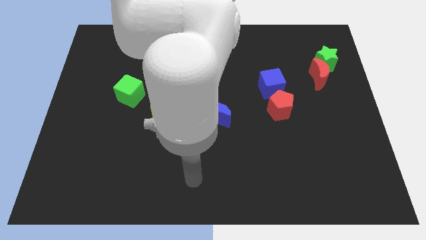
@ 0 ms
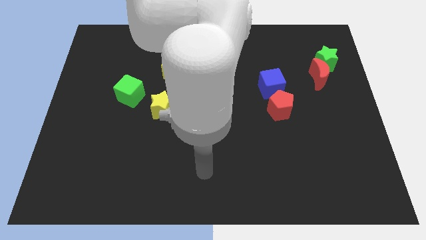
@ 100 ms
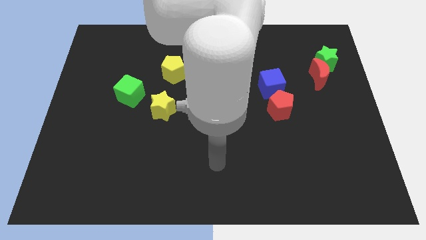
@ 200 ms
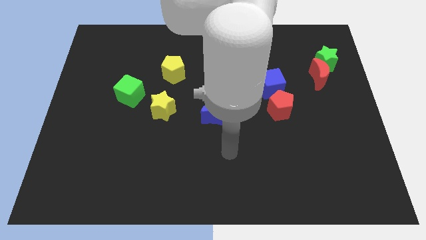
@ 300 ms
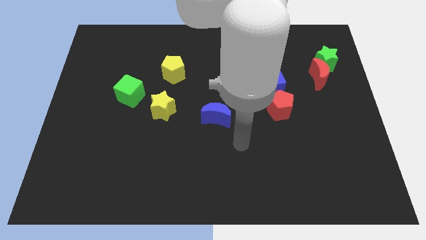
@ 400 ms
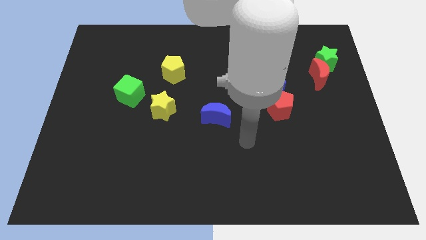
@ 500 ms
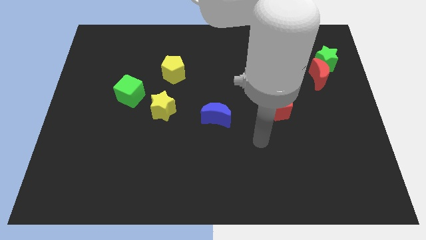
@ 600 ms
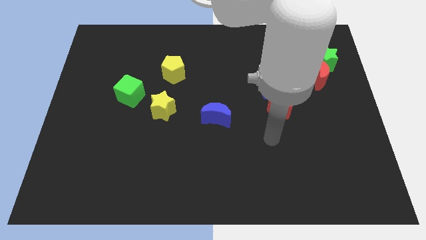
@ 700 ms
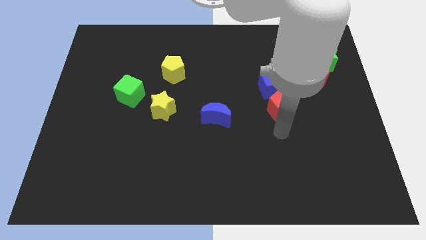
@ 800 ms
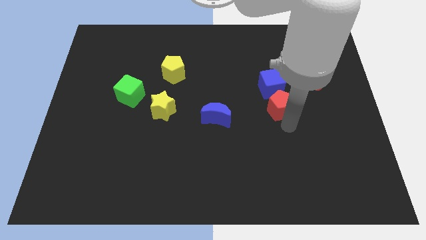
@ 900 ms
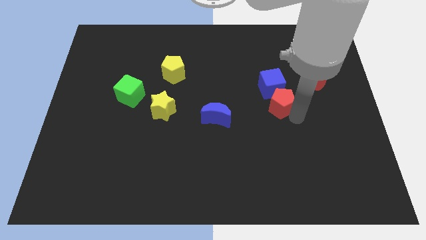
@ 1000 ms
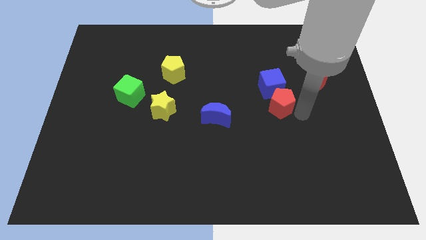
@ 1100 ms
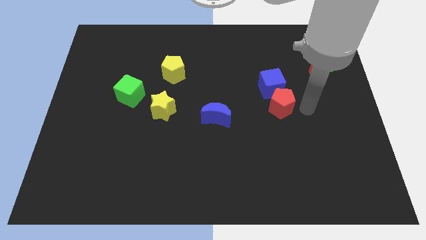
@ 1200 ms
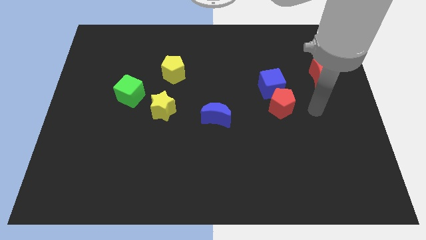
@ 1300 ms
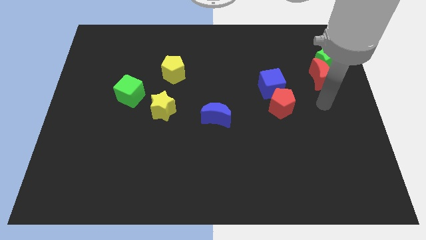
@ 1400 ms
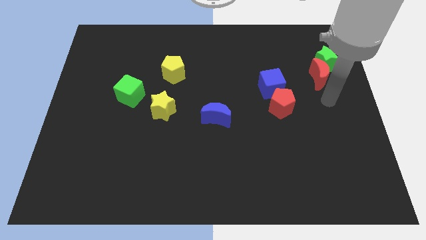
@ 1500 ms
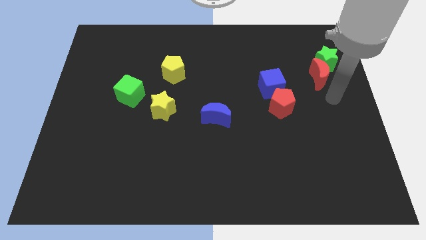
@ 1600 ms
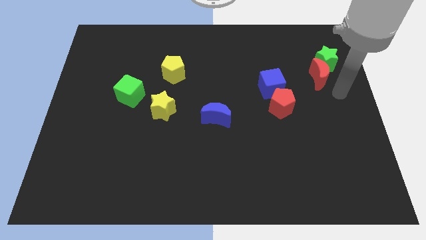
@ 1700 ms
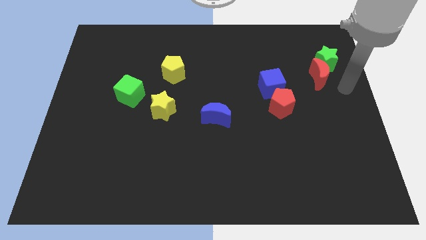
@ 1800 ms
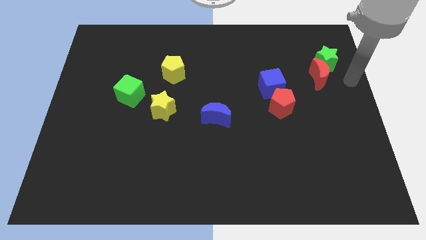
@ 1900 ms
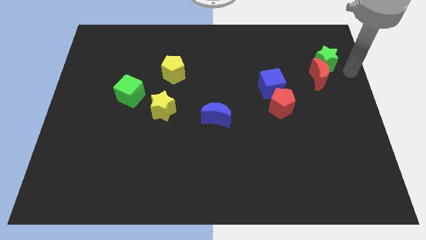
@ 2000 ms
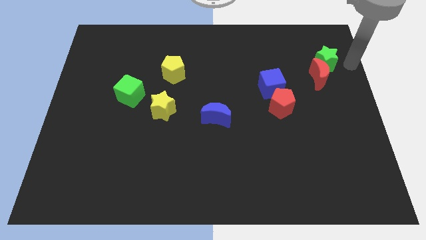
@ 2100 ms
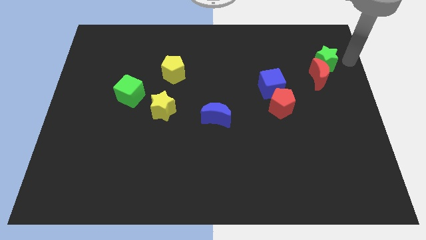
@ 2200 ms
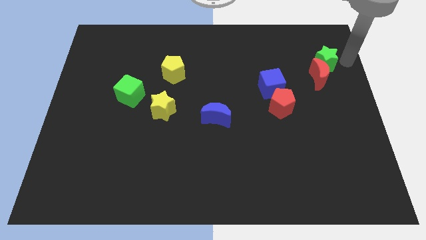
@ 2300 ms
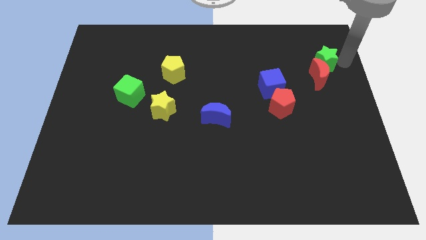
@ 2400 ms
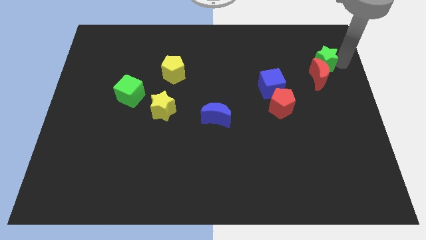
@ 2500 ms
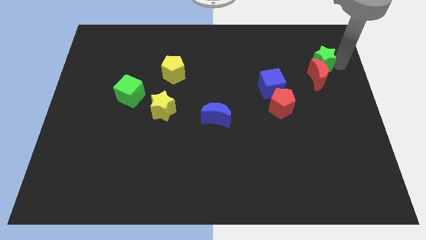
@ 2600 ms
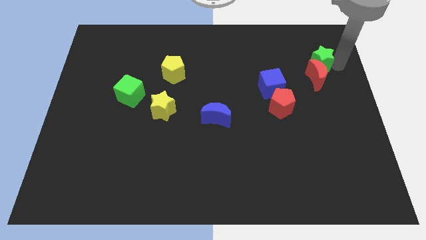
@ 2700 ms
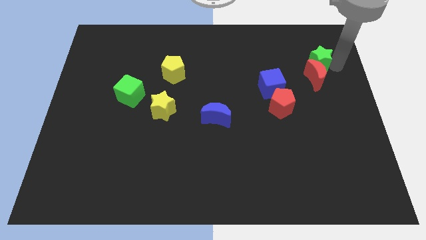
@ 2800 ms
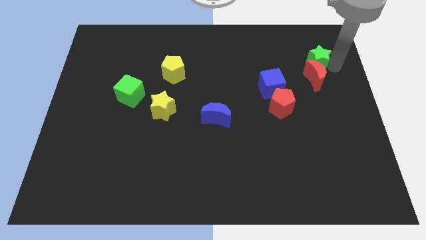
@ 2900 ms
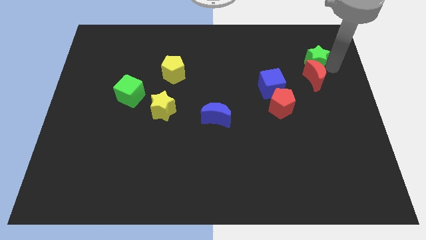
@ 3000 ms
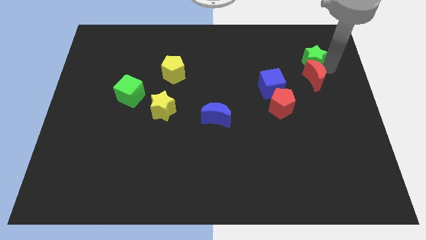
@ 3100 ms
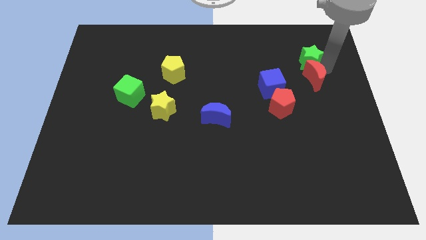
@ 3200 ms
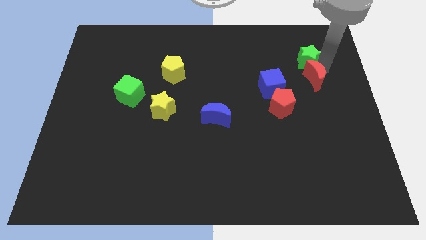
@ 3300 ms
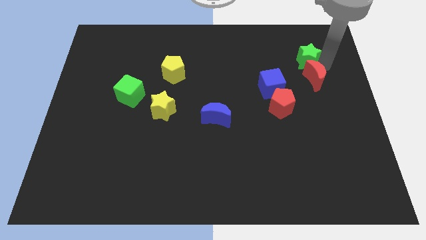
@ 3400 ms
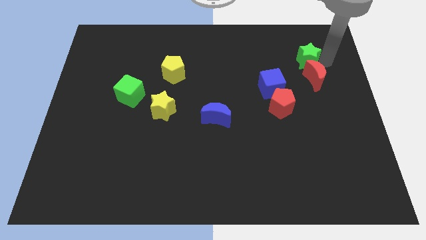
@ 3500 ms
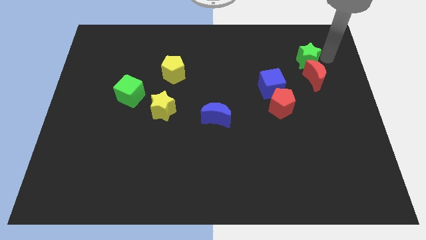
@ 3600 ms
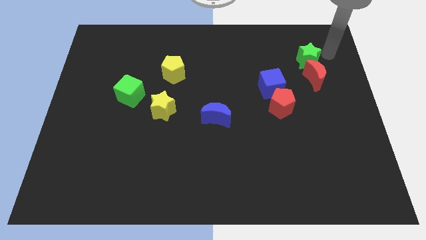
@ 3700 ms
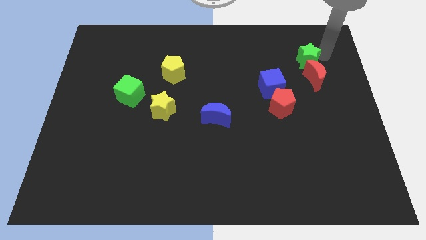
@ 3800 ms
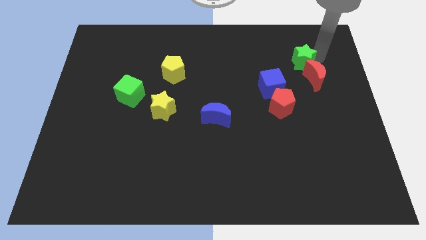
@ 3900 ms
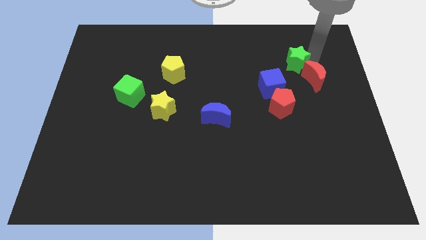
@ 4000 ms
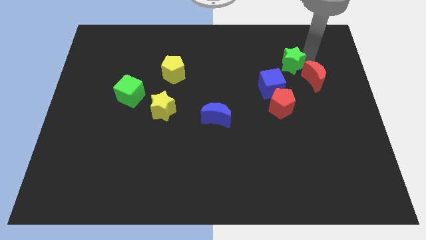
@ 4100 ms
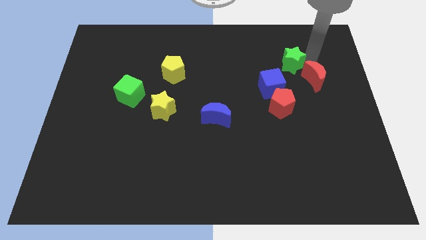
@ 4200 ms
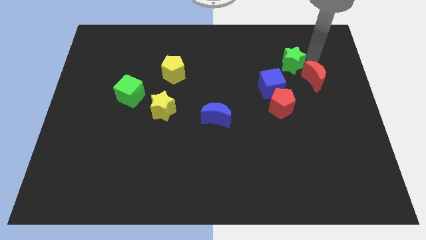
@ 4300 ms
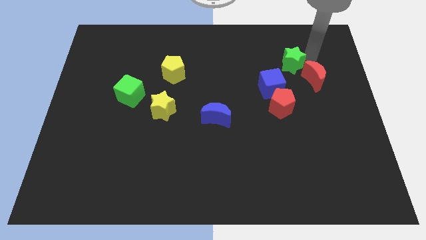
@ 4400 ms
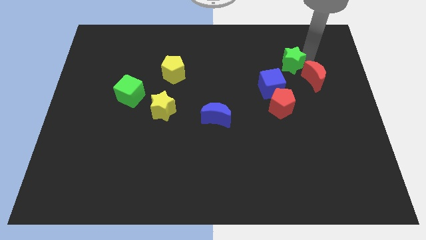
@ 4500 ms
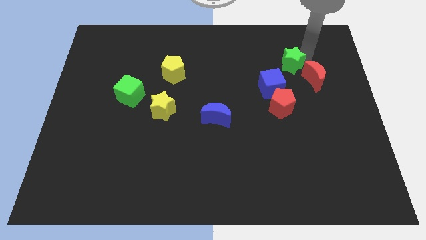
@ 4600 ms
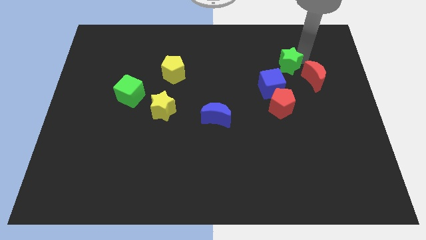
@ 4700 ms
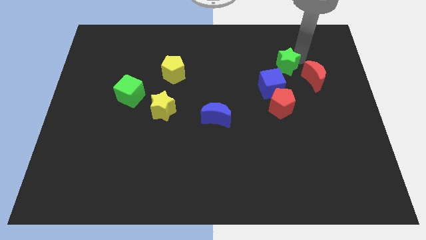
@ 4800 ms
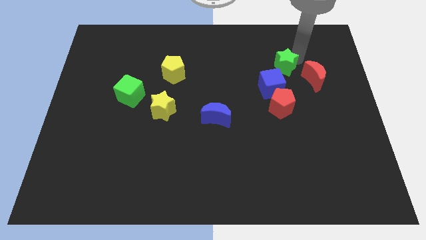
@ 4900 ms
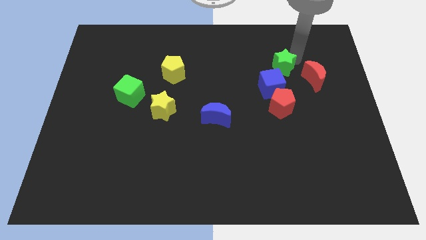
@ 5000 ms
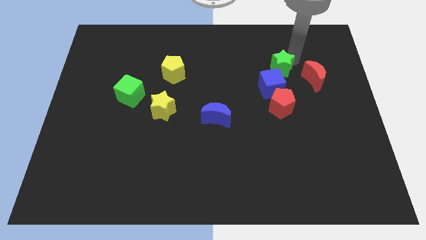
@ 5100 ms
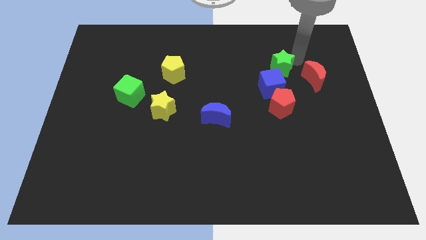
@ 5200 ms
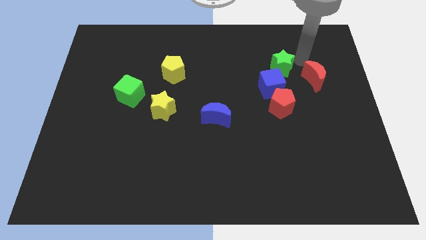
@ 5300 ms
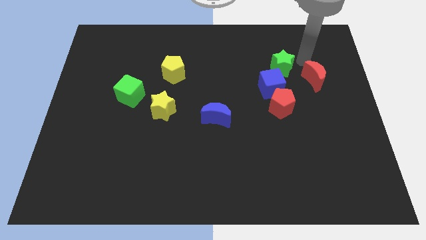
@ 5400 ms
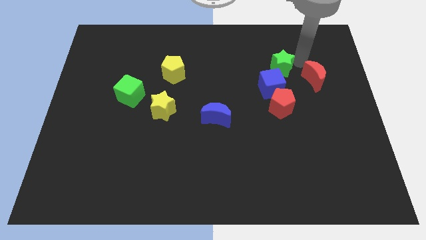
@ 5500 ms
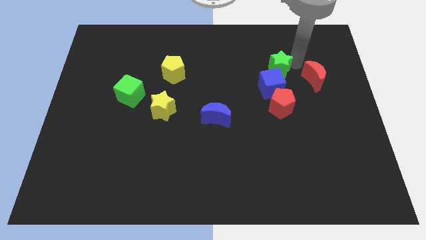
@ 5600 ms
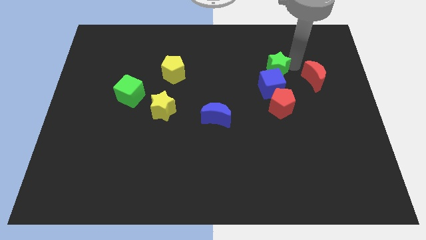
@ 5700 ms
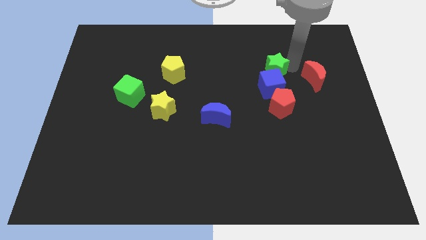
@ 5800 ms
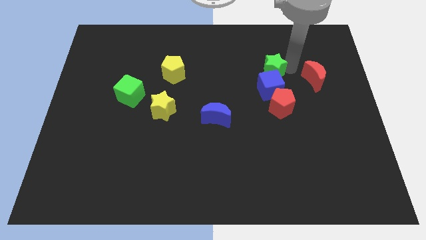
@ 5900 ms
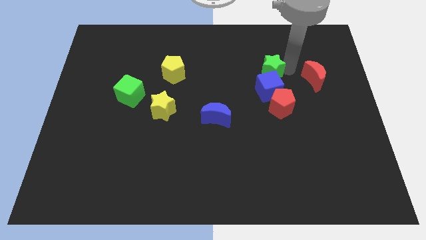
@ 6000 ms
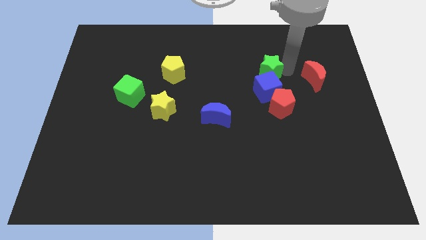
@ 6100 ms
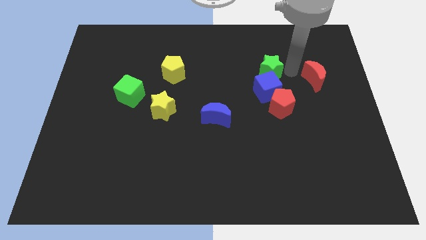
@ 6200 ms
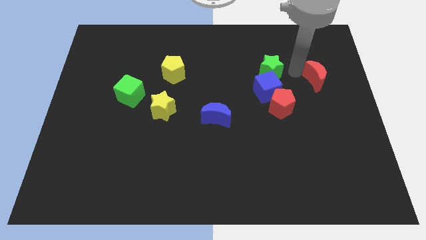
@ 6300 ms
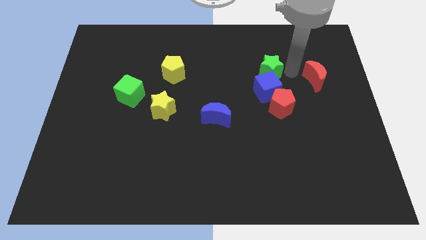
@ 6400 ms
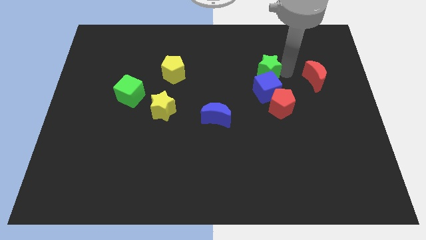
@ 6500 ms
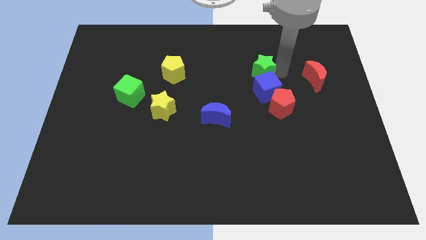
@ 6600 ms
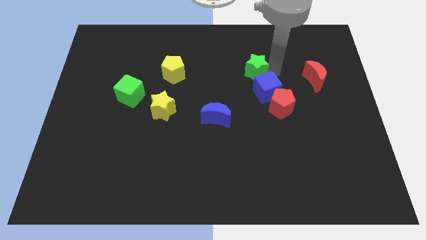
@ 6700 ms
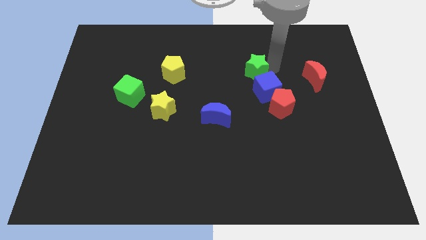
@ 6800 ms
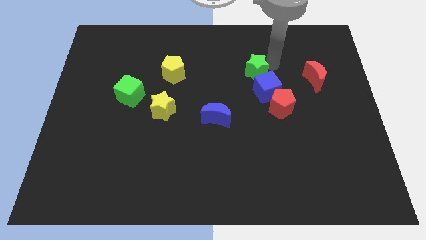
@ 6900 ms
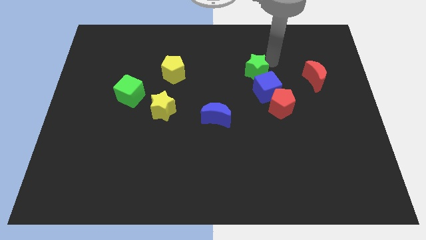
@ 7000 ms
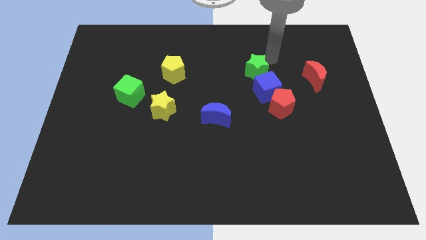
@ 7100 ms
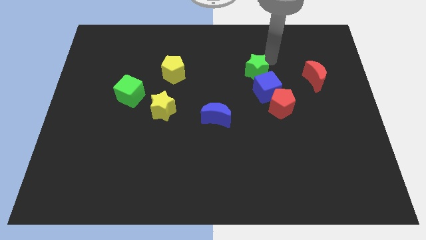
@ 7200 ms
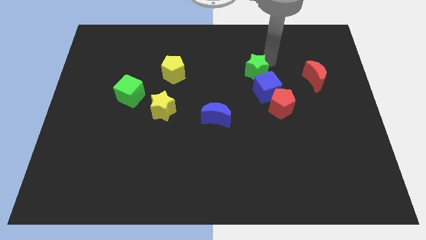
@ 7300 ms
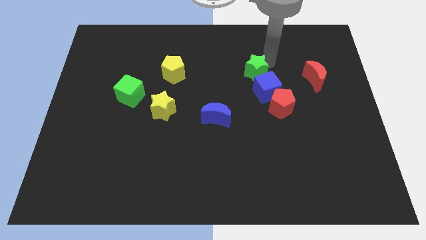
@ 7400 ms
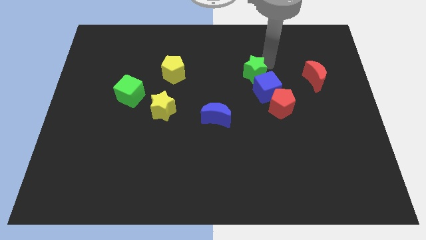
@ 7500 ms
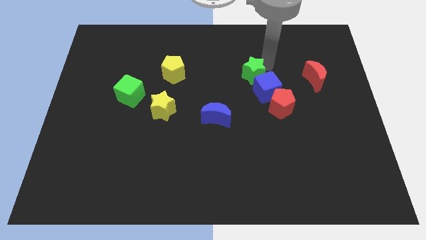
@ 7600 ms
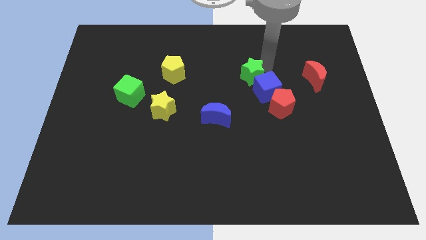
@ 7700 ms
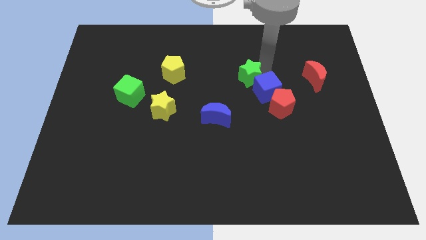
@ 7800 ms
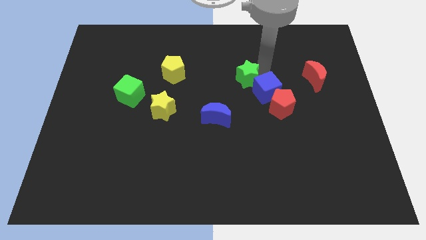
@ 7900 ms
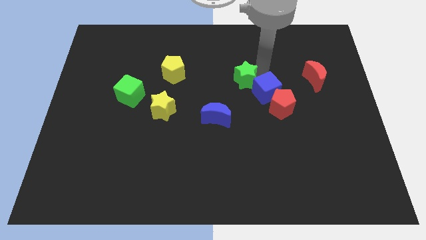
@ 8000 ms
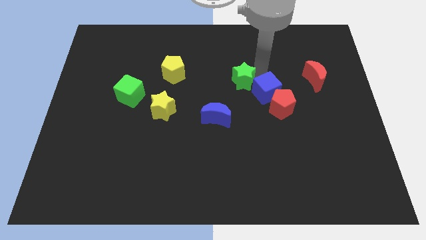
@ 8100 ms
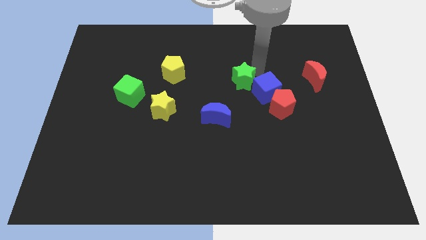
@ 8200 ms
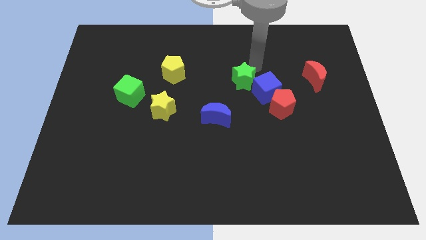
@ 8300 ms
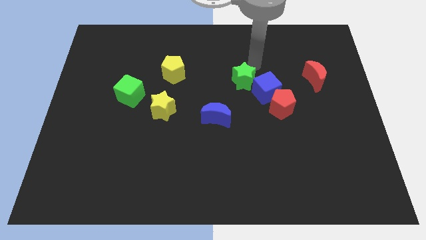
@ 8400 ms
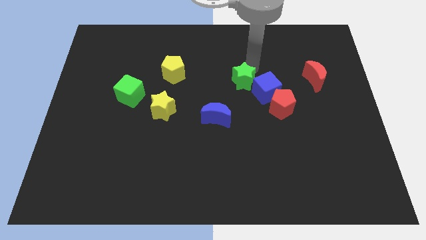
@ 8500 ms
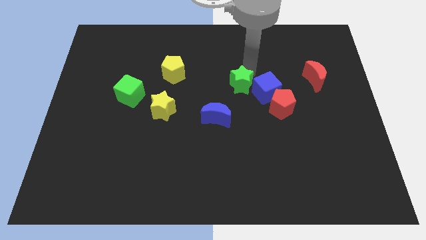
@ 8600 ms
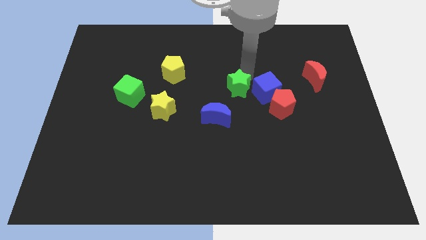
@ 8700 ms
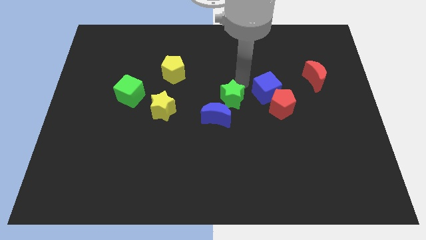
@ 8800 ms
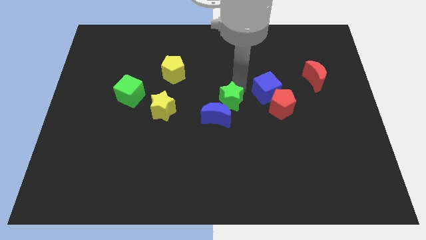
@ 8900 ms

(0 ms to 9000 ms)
push the green star to the blue moon
